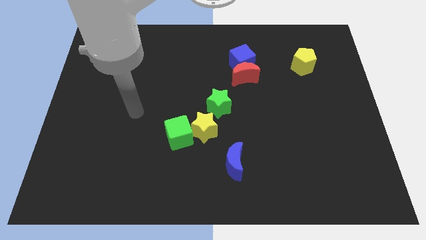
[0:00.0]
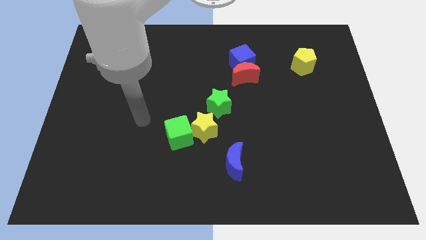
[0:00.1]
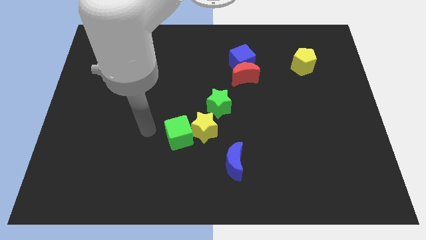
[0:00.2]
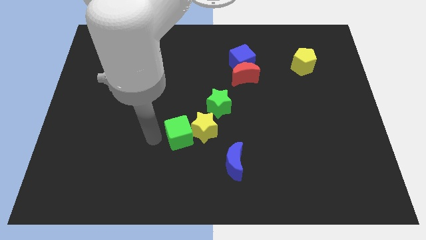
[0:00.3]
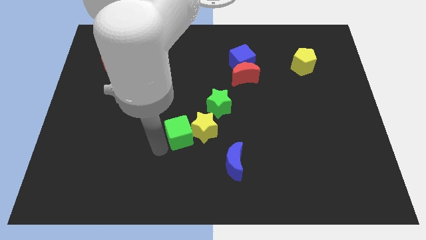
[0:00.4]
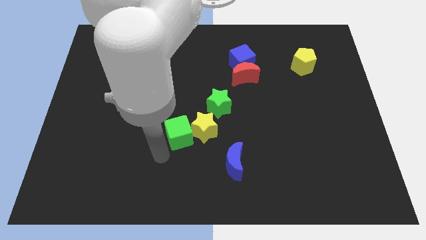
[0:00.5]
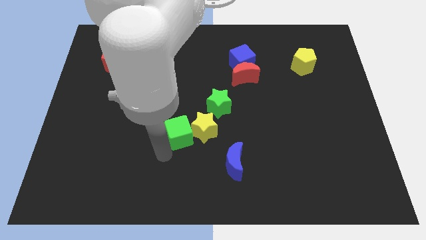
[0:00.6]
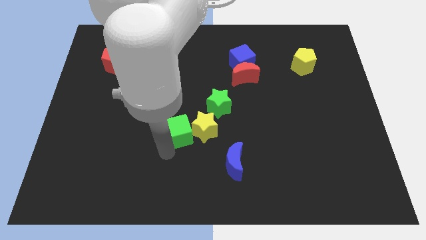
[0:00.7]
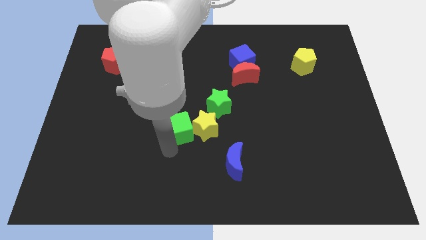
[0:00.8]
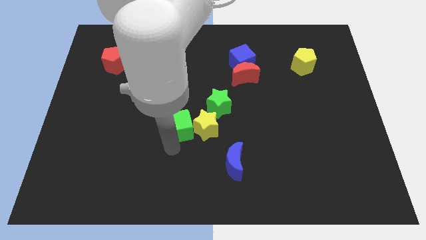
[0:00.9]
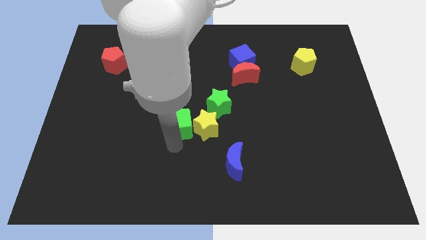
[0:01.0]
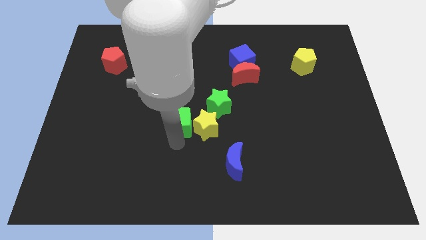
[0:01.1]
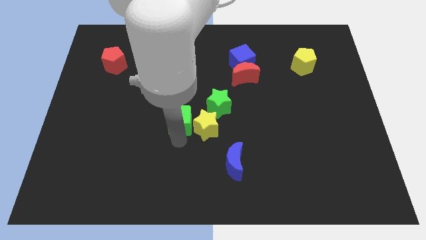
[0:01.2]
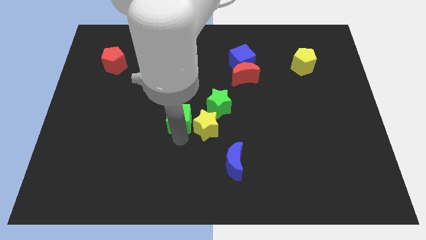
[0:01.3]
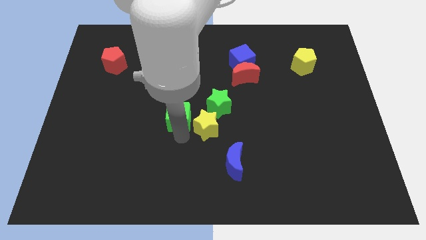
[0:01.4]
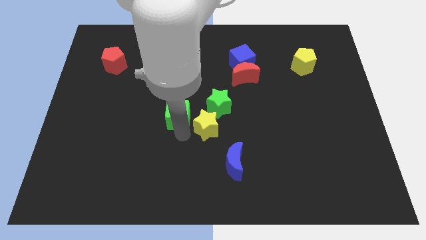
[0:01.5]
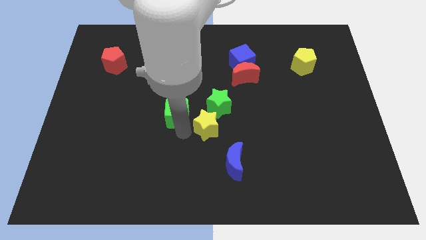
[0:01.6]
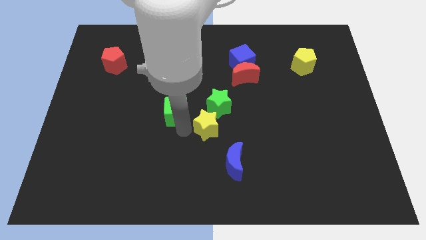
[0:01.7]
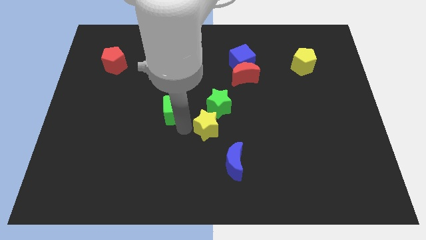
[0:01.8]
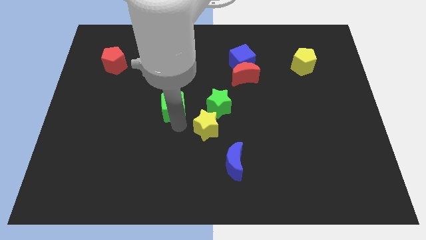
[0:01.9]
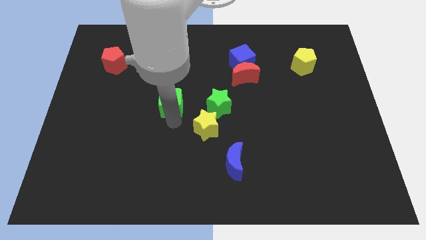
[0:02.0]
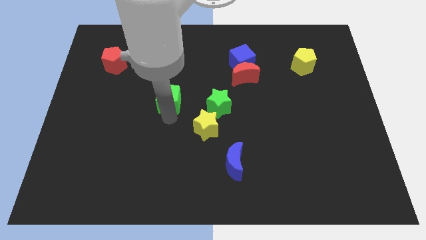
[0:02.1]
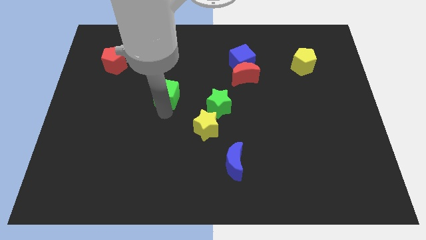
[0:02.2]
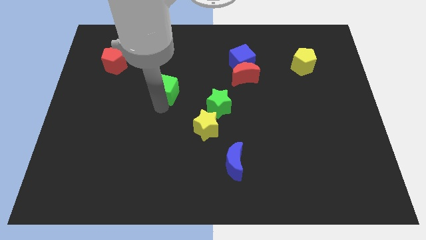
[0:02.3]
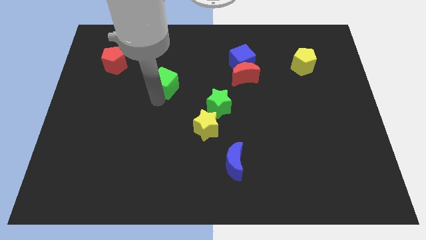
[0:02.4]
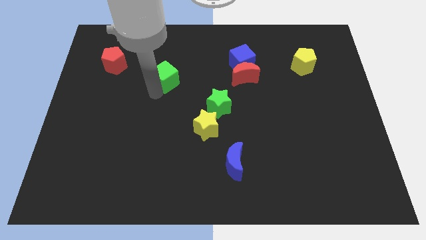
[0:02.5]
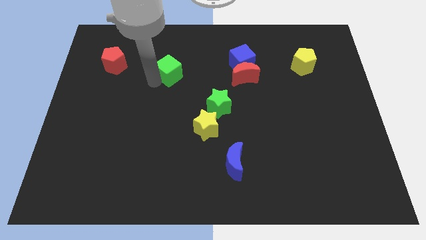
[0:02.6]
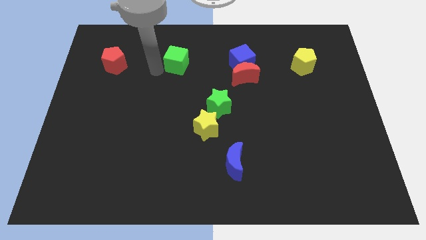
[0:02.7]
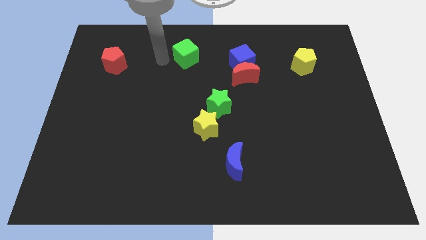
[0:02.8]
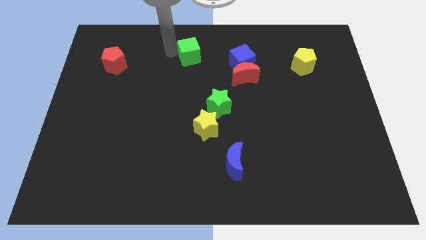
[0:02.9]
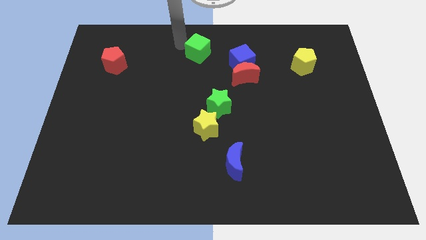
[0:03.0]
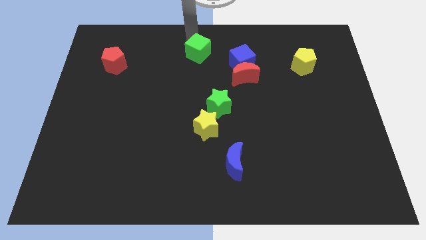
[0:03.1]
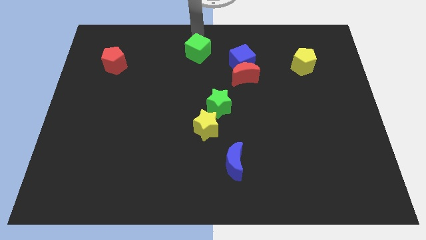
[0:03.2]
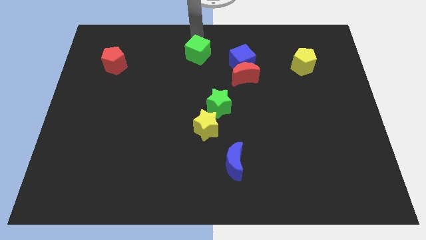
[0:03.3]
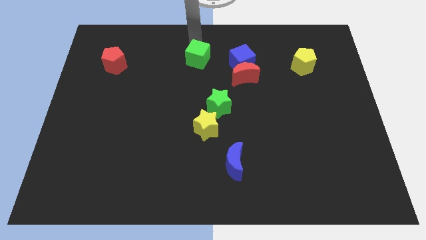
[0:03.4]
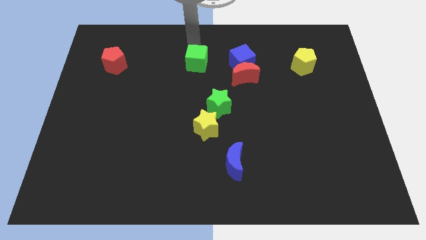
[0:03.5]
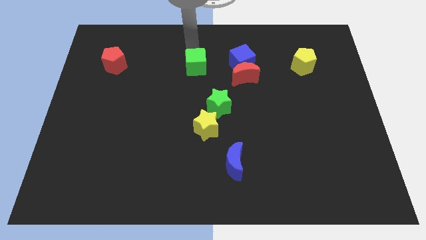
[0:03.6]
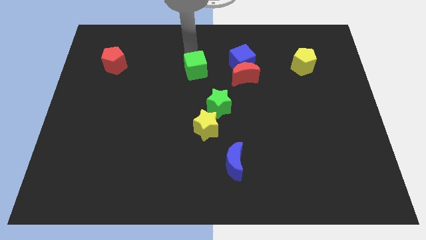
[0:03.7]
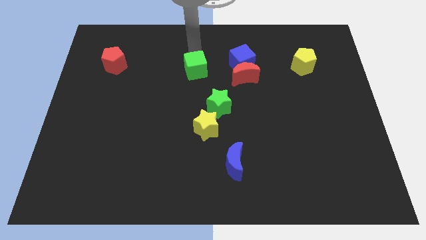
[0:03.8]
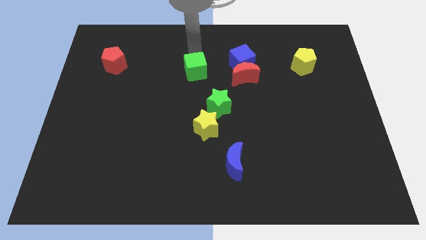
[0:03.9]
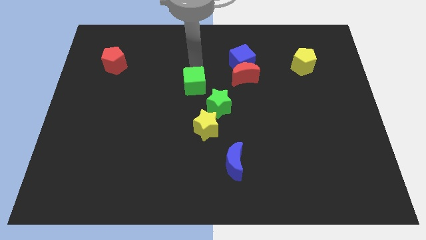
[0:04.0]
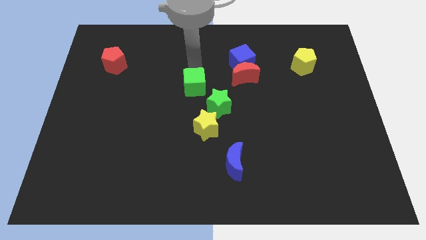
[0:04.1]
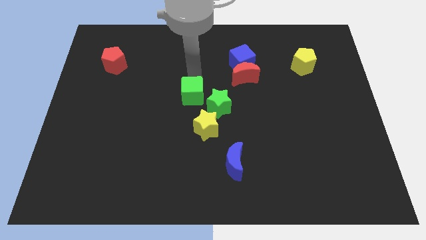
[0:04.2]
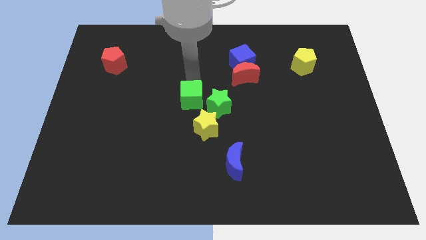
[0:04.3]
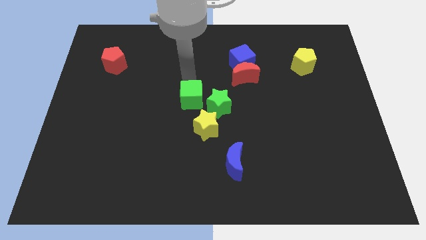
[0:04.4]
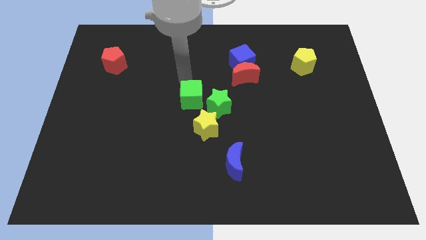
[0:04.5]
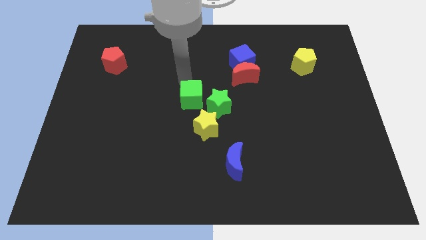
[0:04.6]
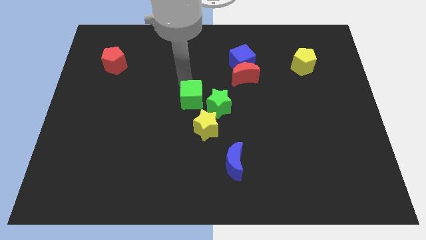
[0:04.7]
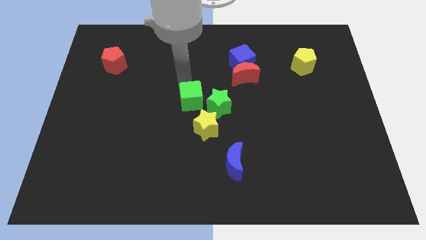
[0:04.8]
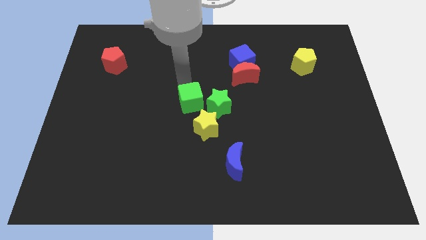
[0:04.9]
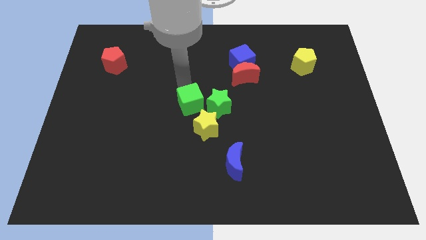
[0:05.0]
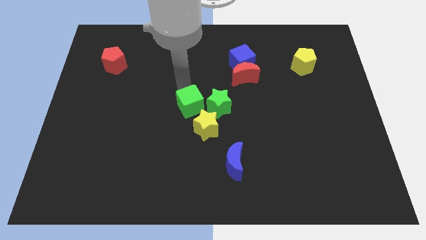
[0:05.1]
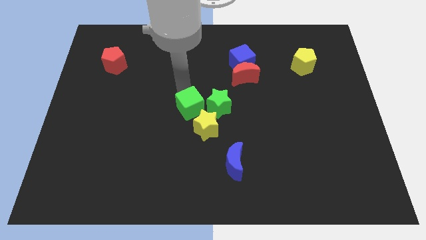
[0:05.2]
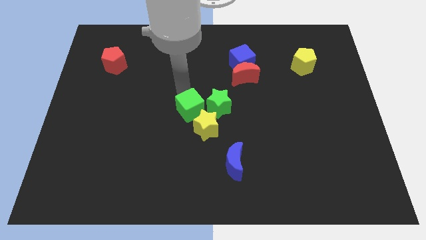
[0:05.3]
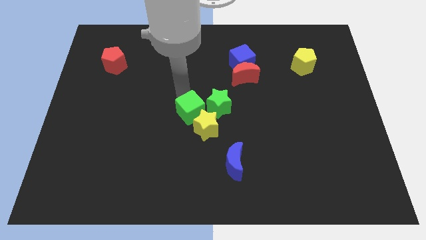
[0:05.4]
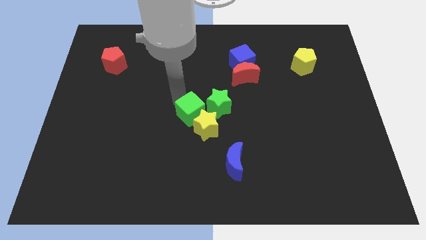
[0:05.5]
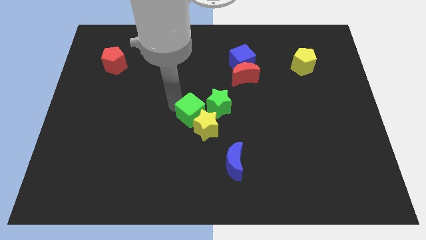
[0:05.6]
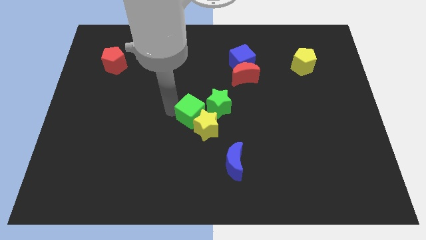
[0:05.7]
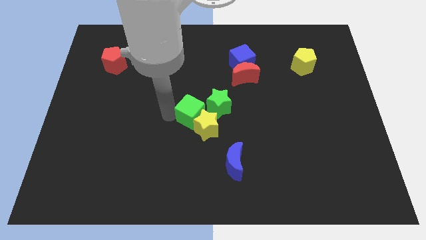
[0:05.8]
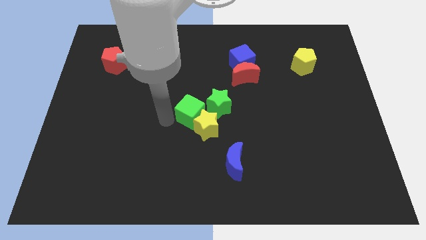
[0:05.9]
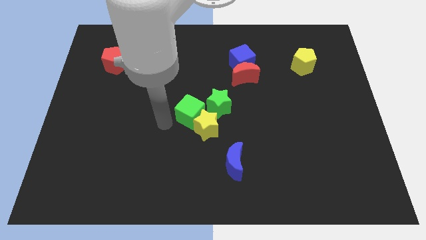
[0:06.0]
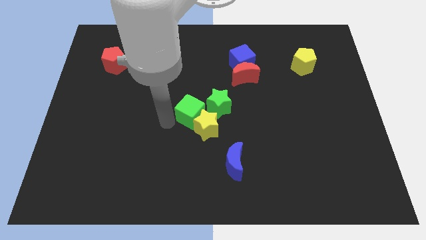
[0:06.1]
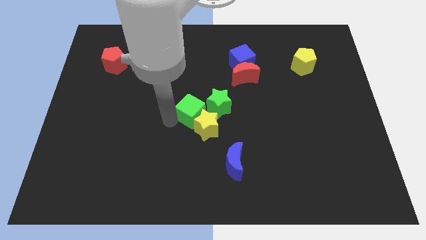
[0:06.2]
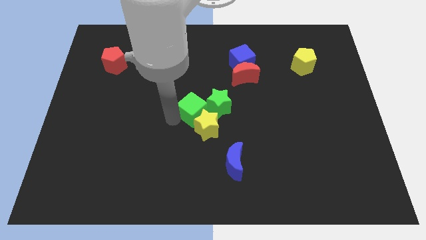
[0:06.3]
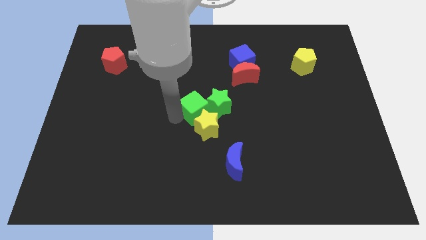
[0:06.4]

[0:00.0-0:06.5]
put the green cube towards the green star

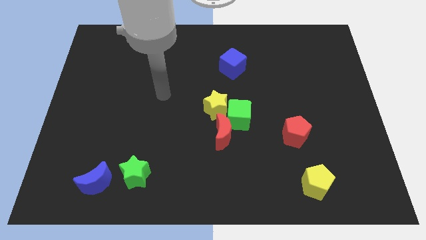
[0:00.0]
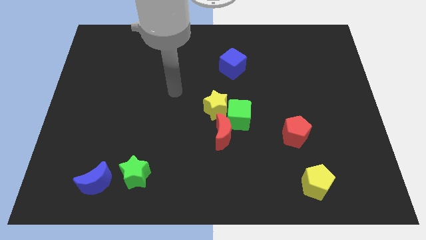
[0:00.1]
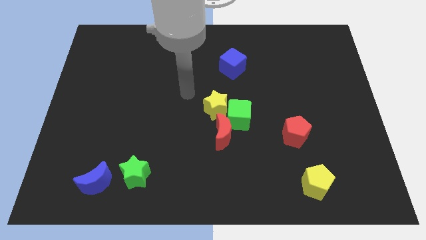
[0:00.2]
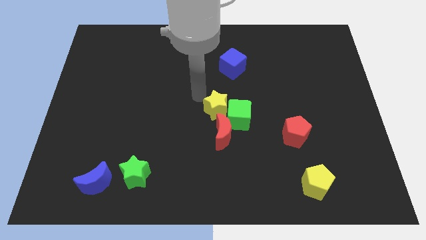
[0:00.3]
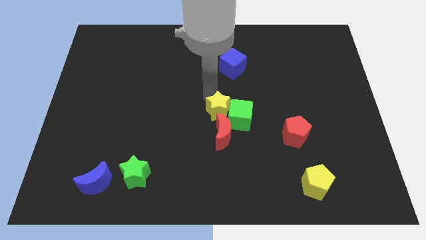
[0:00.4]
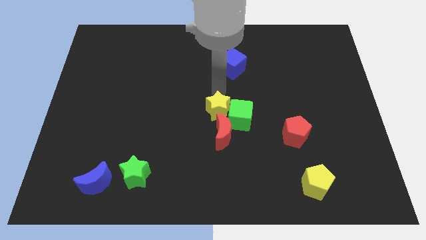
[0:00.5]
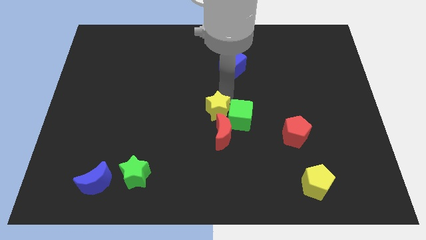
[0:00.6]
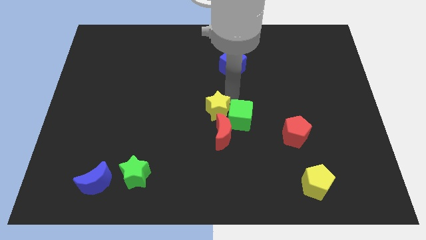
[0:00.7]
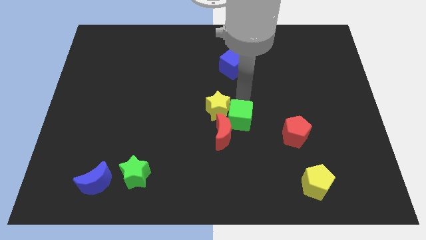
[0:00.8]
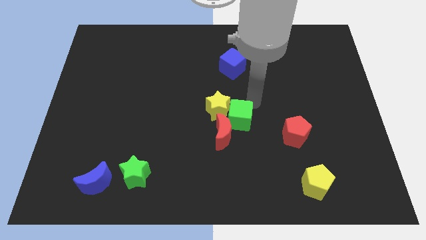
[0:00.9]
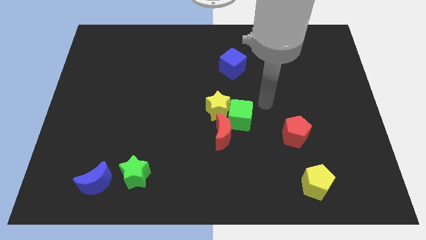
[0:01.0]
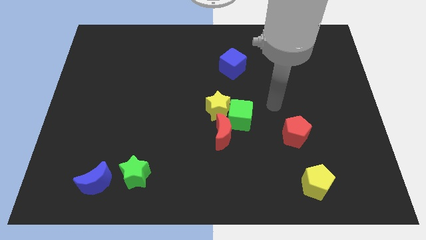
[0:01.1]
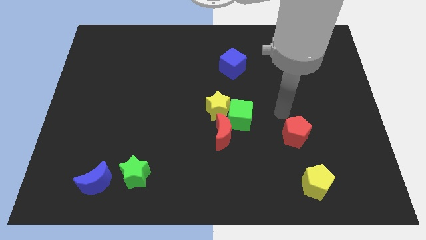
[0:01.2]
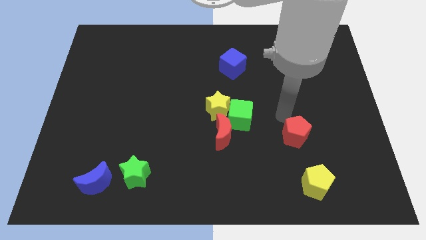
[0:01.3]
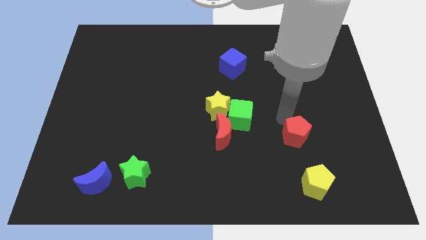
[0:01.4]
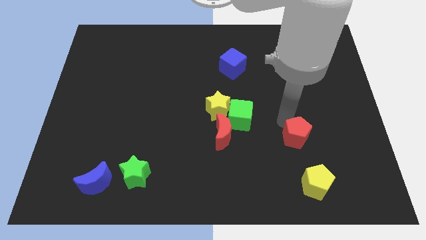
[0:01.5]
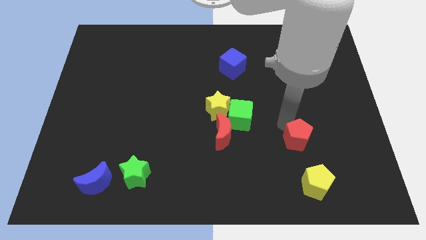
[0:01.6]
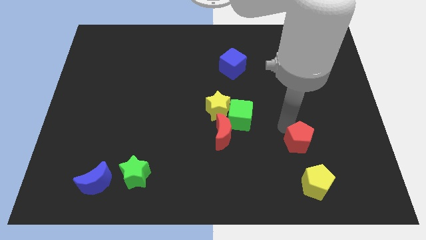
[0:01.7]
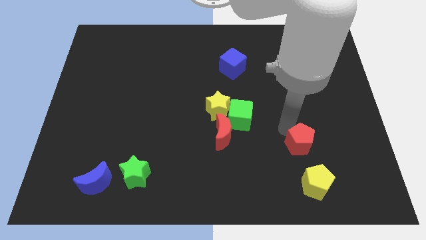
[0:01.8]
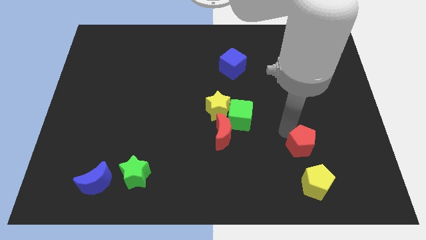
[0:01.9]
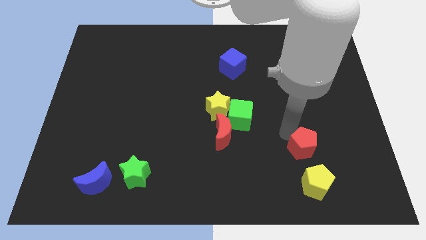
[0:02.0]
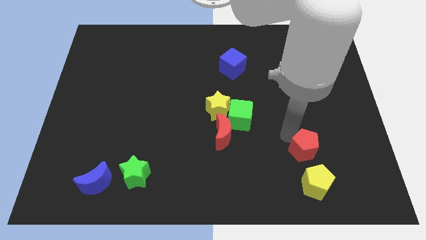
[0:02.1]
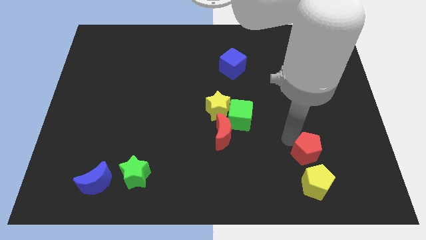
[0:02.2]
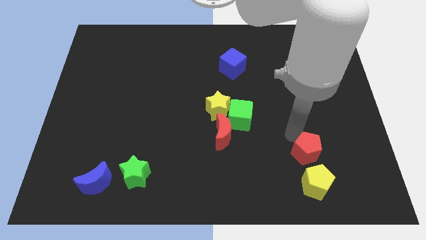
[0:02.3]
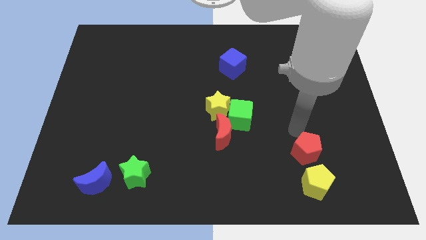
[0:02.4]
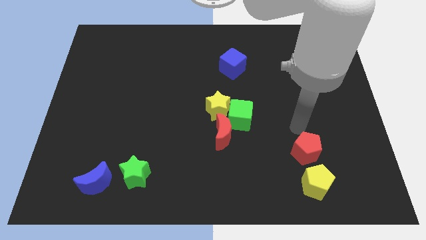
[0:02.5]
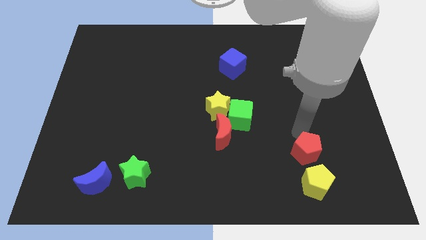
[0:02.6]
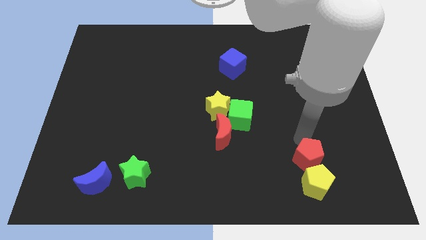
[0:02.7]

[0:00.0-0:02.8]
move the red pentagon close to the yellow pentagon
